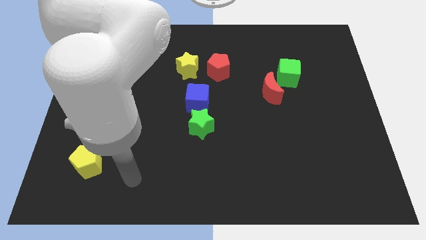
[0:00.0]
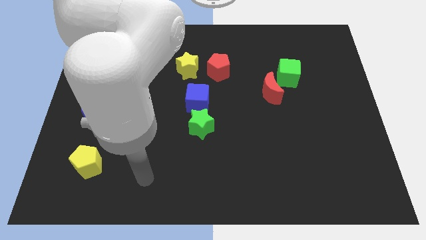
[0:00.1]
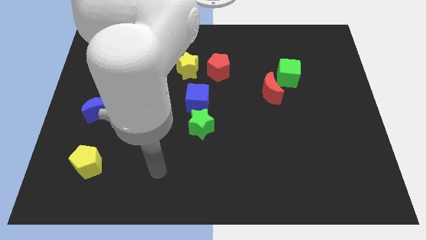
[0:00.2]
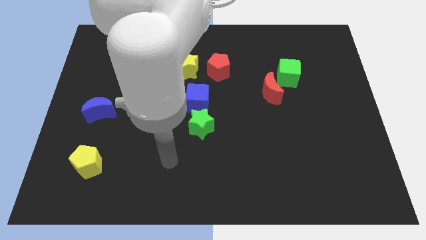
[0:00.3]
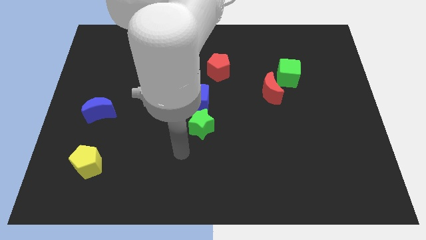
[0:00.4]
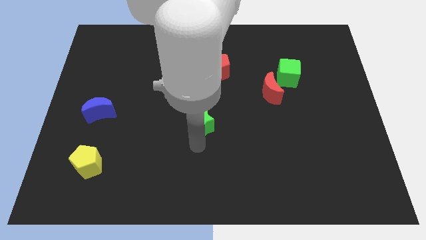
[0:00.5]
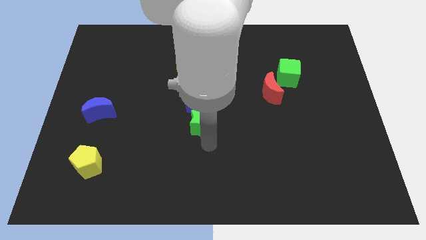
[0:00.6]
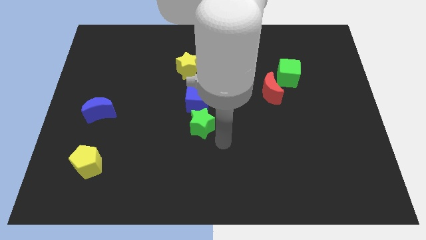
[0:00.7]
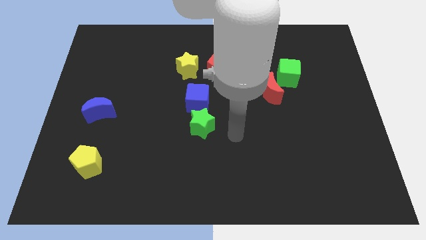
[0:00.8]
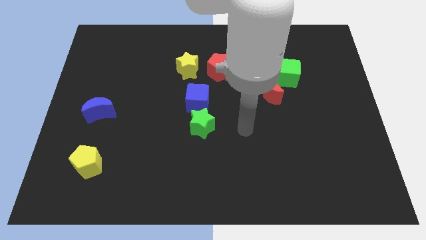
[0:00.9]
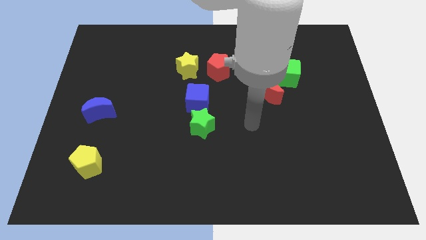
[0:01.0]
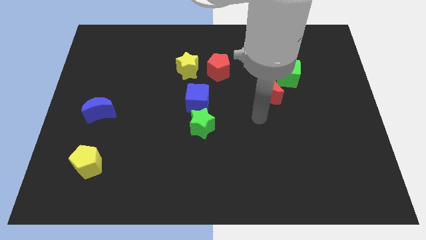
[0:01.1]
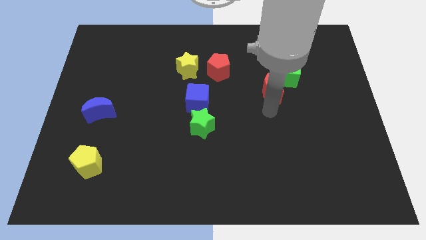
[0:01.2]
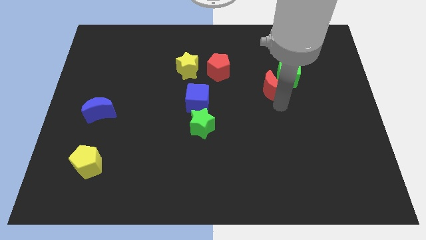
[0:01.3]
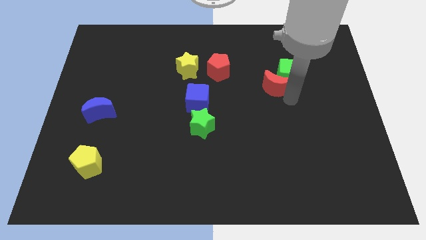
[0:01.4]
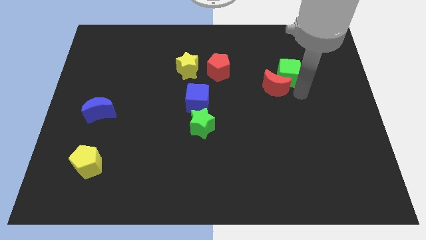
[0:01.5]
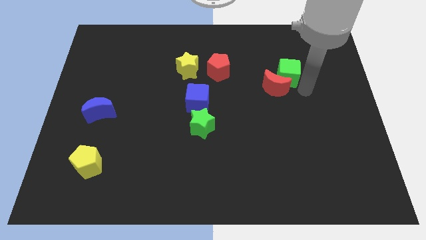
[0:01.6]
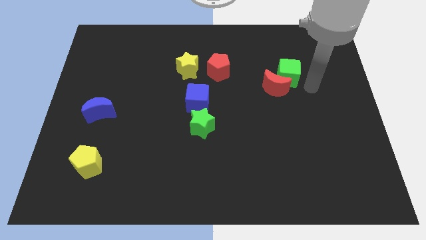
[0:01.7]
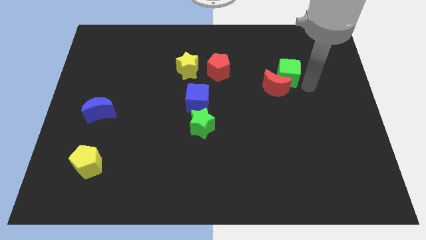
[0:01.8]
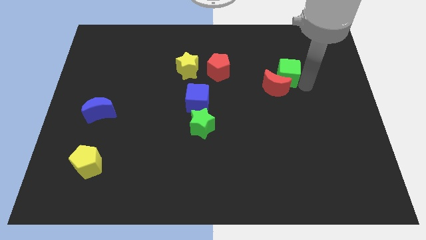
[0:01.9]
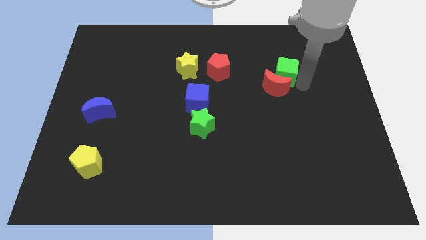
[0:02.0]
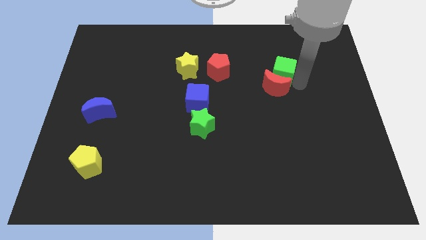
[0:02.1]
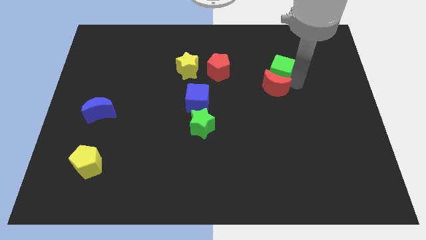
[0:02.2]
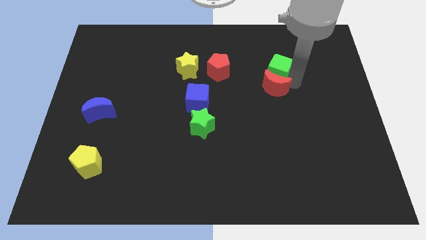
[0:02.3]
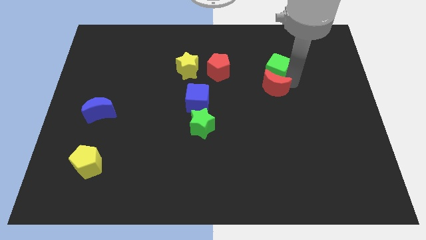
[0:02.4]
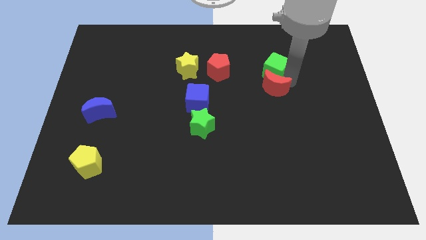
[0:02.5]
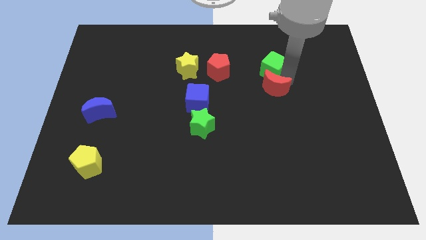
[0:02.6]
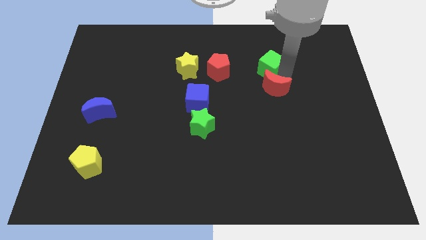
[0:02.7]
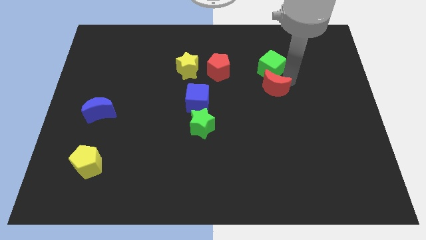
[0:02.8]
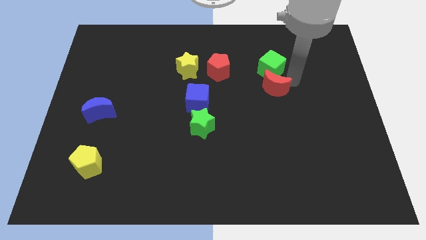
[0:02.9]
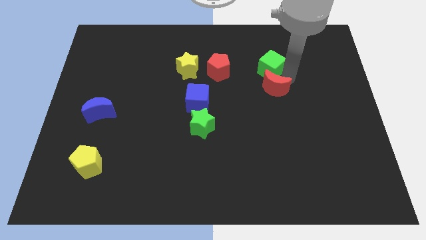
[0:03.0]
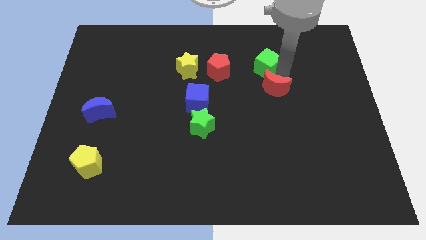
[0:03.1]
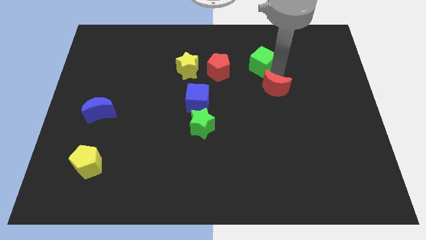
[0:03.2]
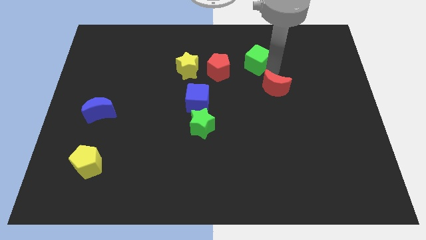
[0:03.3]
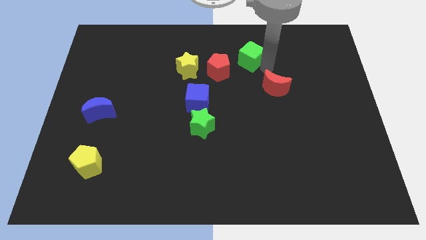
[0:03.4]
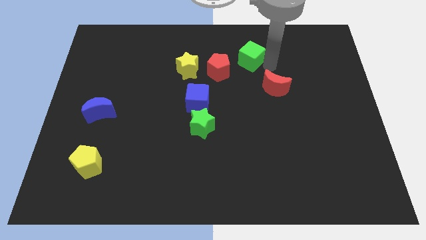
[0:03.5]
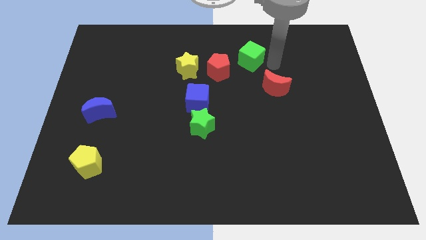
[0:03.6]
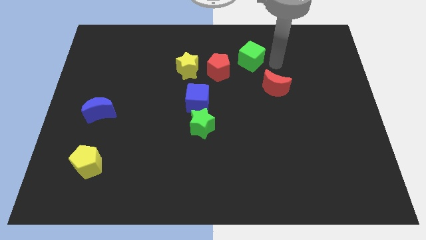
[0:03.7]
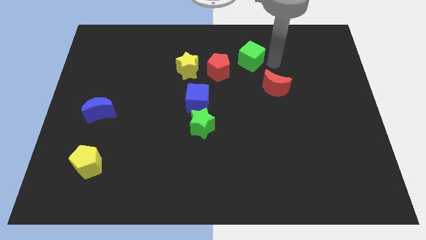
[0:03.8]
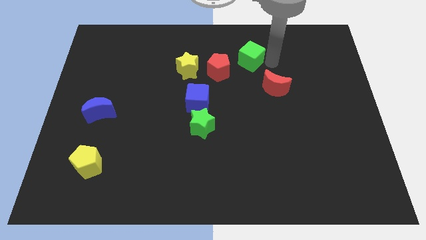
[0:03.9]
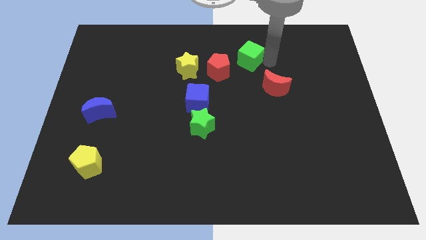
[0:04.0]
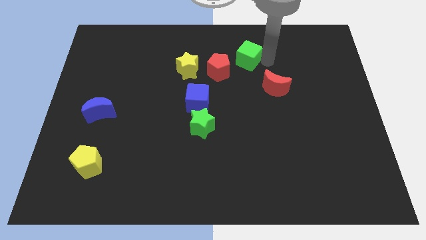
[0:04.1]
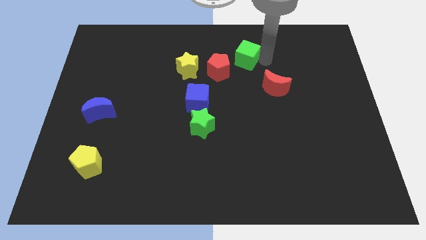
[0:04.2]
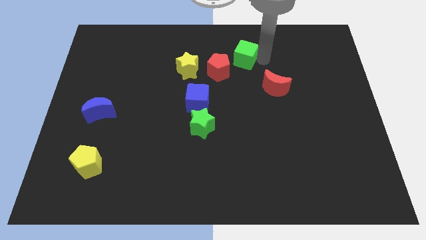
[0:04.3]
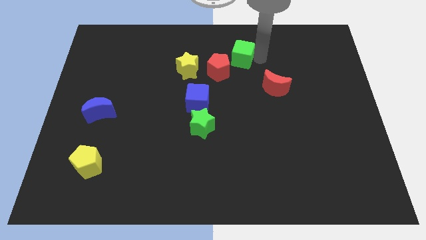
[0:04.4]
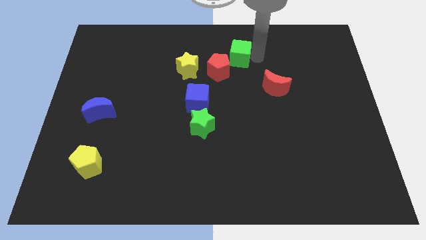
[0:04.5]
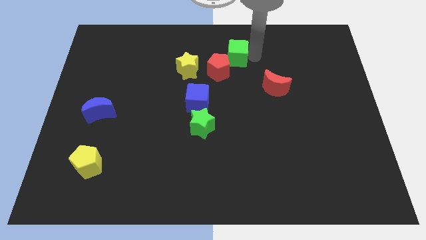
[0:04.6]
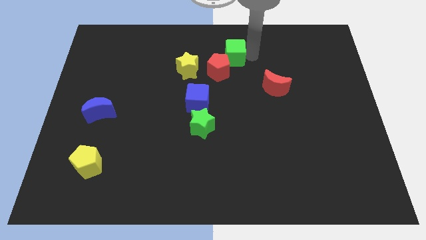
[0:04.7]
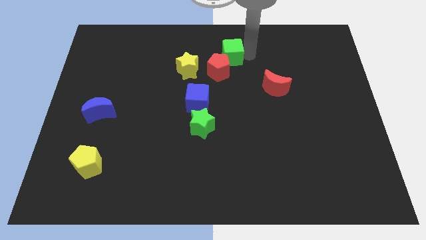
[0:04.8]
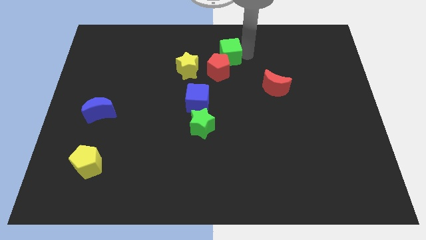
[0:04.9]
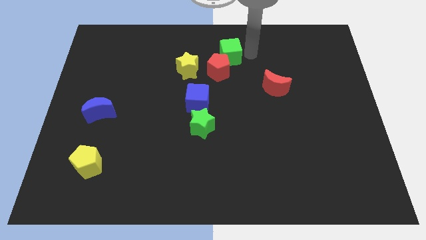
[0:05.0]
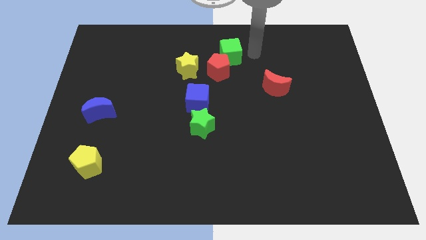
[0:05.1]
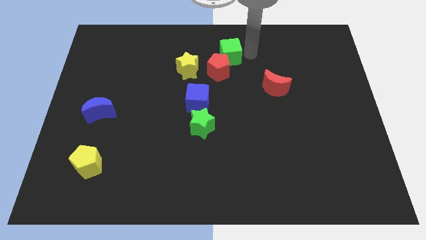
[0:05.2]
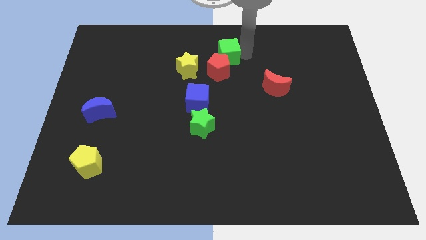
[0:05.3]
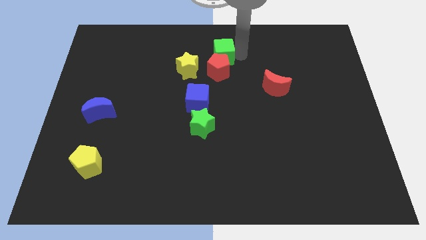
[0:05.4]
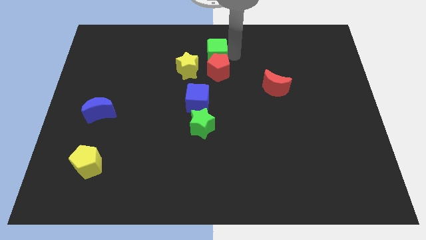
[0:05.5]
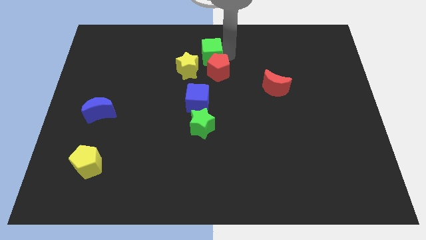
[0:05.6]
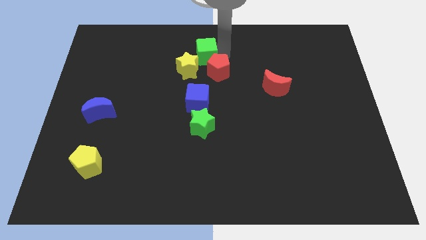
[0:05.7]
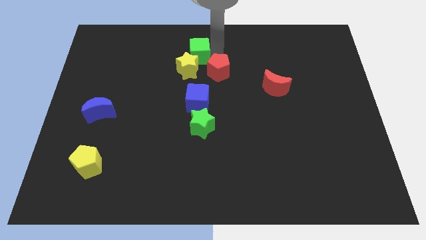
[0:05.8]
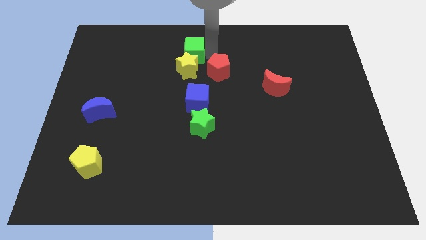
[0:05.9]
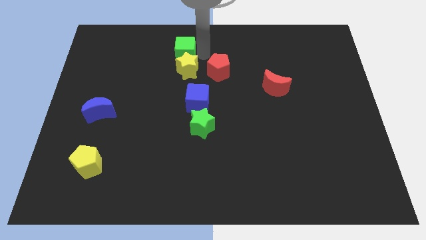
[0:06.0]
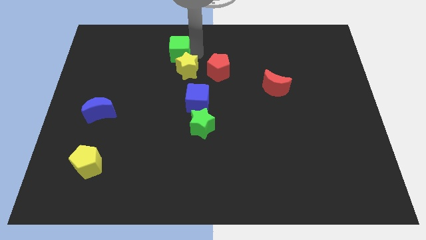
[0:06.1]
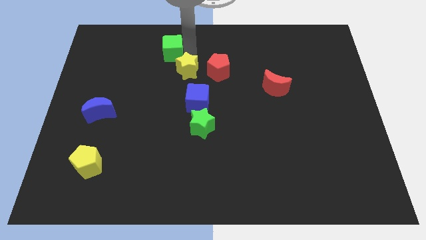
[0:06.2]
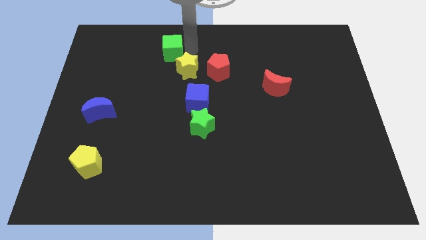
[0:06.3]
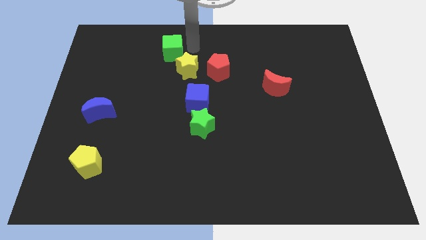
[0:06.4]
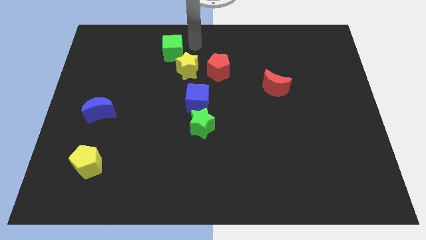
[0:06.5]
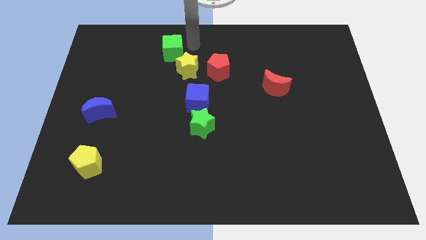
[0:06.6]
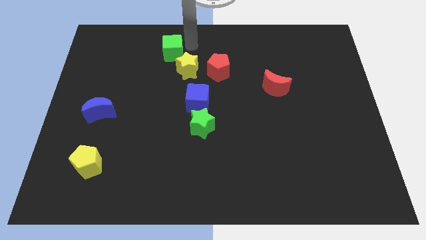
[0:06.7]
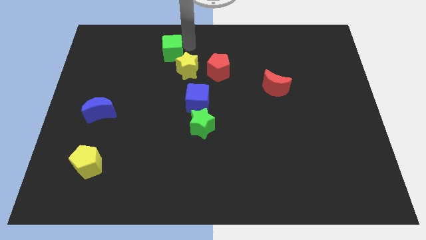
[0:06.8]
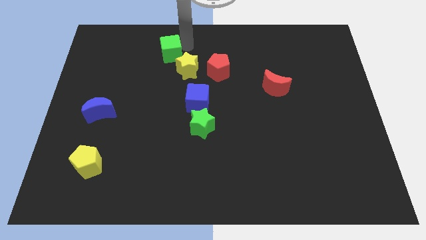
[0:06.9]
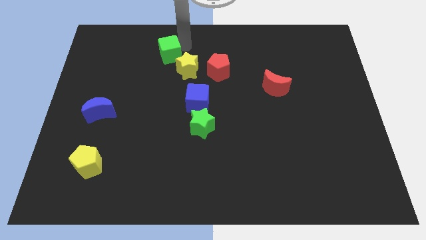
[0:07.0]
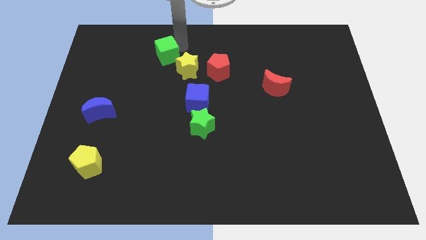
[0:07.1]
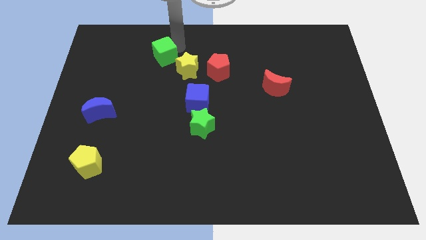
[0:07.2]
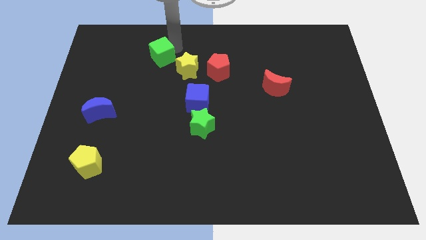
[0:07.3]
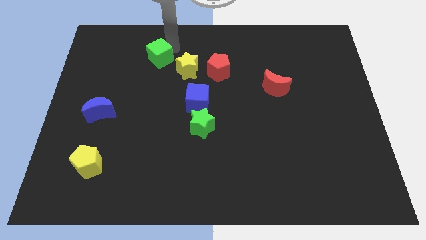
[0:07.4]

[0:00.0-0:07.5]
move the green cube to the left of the yellow star
